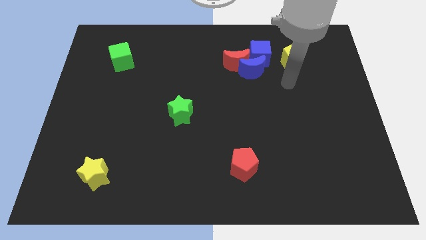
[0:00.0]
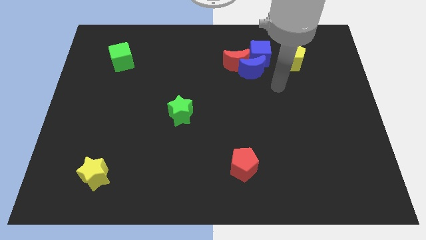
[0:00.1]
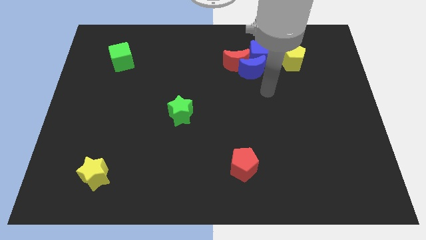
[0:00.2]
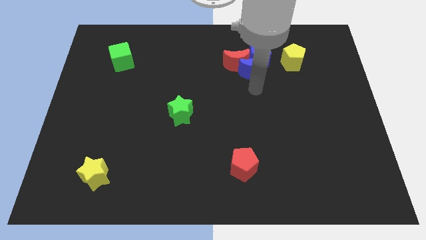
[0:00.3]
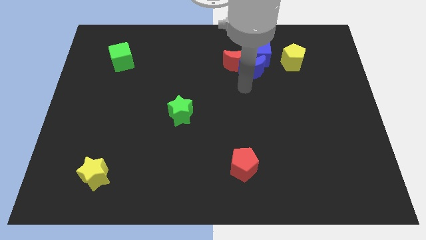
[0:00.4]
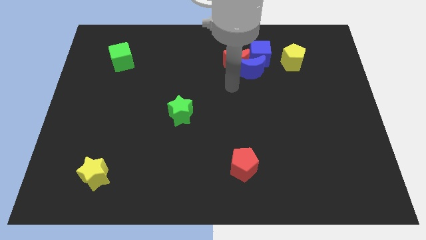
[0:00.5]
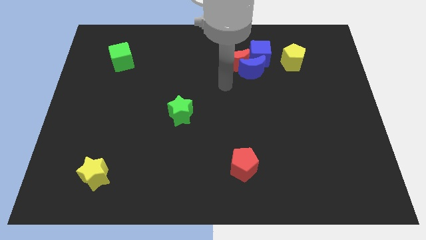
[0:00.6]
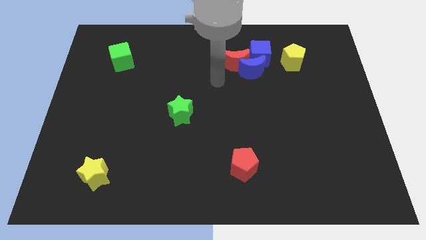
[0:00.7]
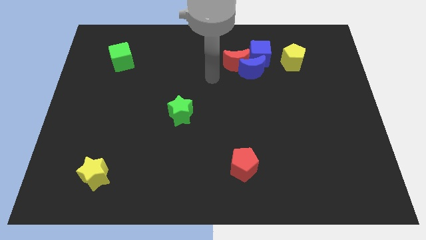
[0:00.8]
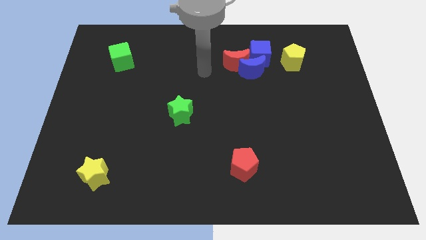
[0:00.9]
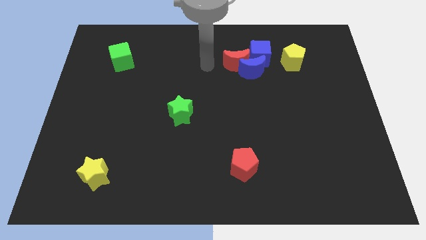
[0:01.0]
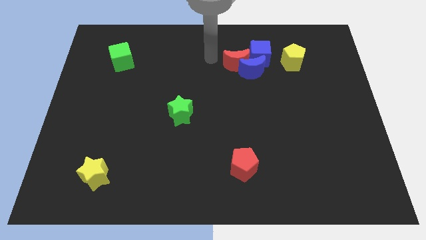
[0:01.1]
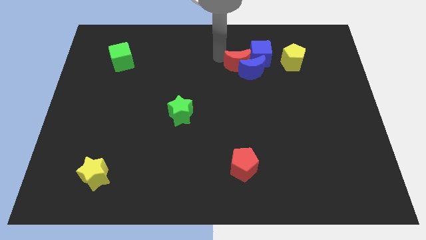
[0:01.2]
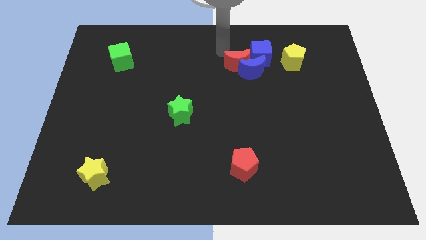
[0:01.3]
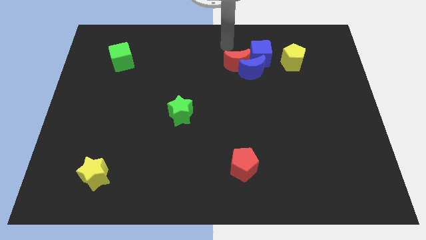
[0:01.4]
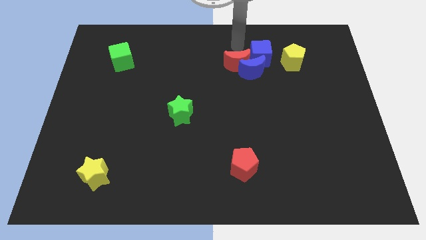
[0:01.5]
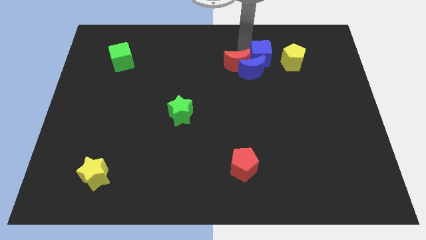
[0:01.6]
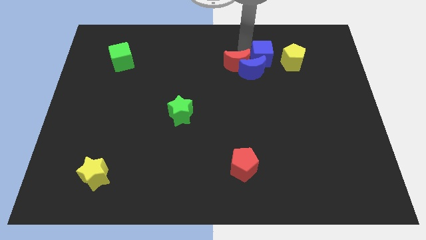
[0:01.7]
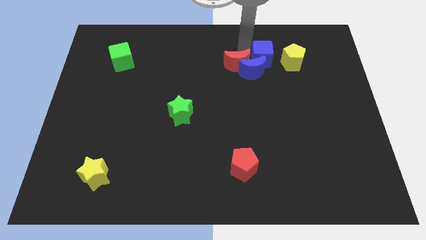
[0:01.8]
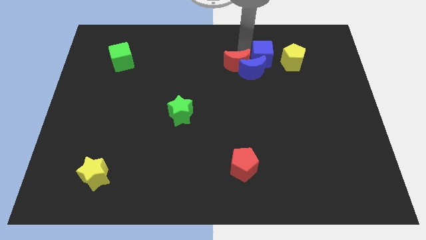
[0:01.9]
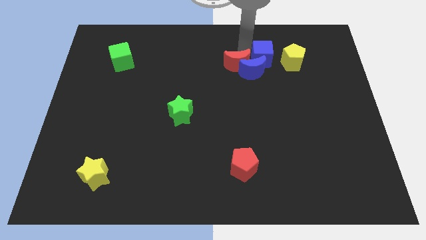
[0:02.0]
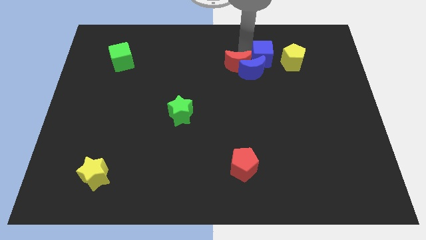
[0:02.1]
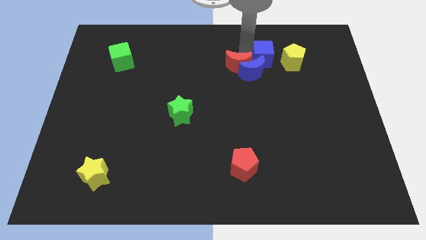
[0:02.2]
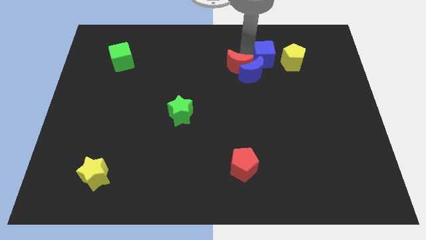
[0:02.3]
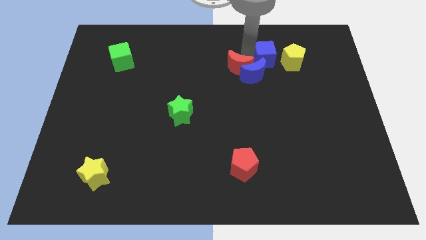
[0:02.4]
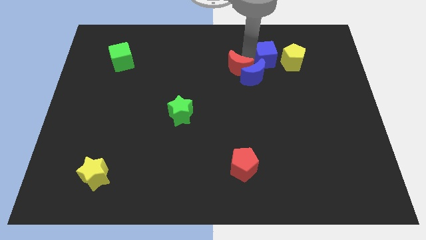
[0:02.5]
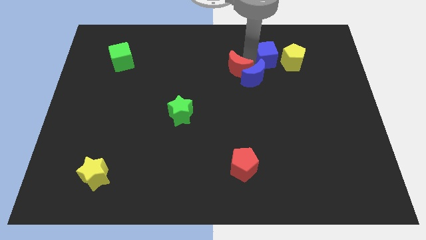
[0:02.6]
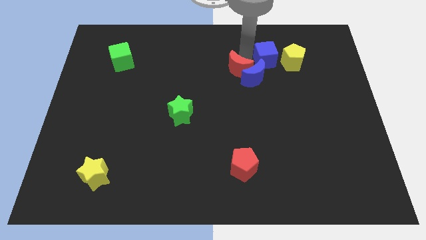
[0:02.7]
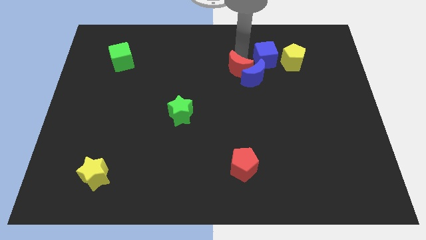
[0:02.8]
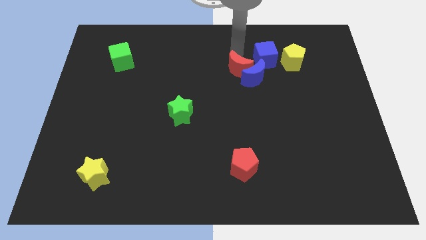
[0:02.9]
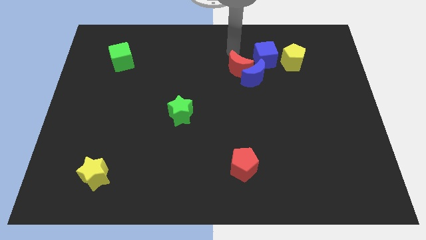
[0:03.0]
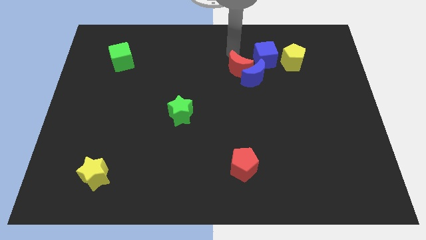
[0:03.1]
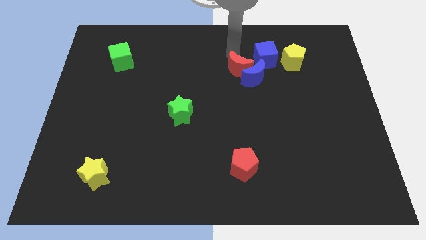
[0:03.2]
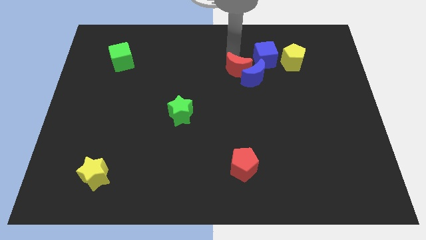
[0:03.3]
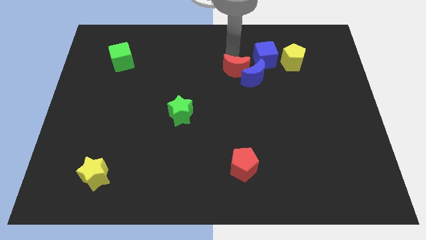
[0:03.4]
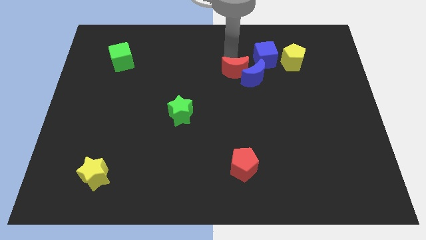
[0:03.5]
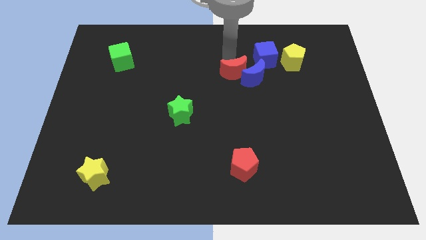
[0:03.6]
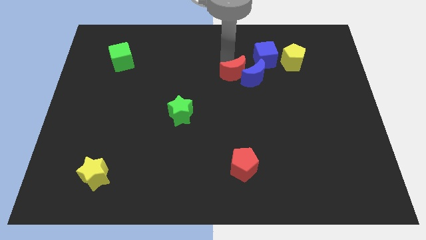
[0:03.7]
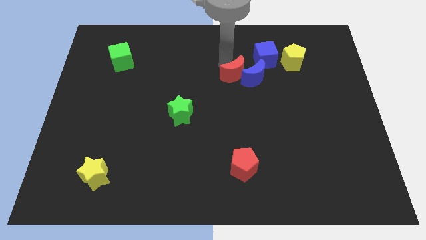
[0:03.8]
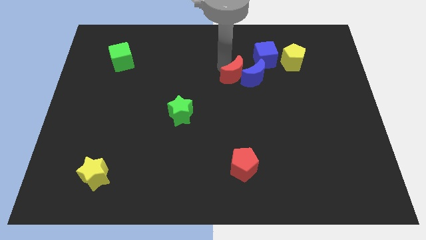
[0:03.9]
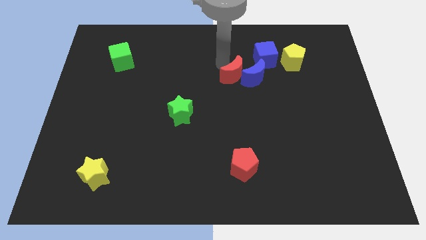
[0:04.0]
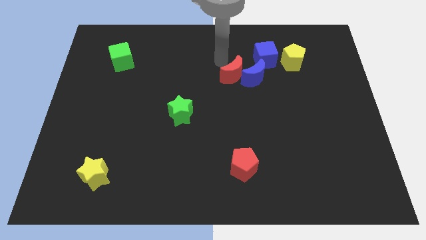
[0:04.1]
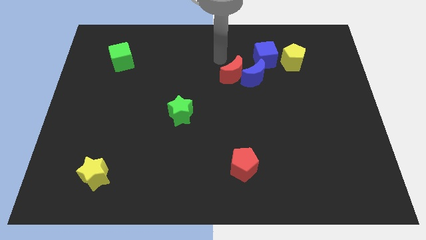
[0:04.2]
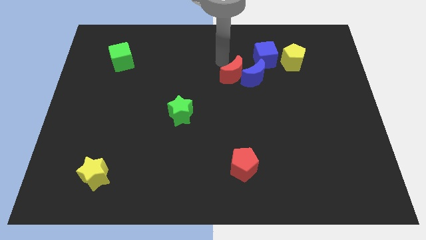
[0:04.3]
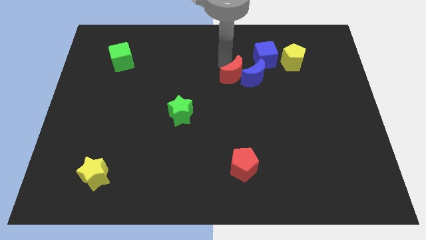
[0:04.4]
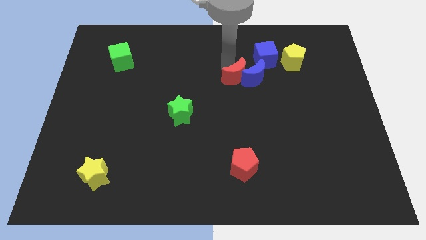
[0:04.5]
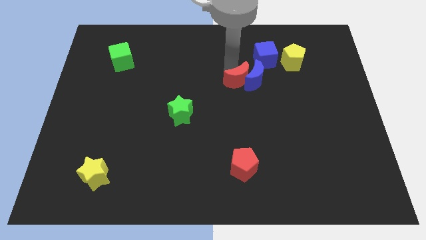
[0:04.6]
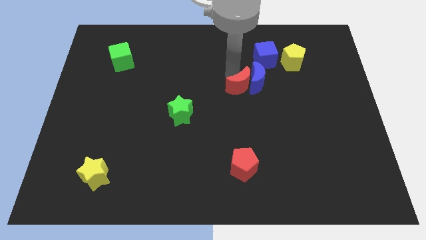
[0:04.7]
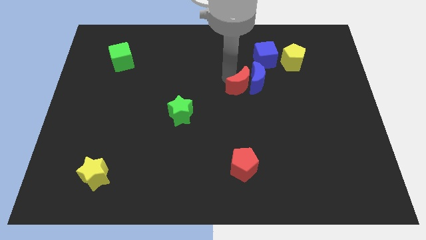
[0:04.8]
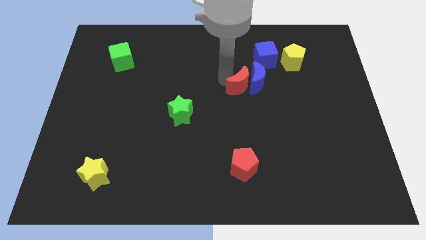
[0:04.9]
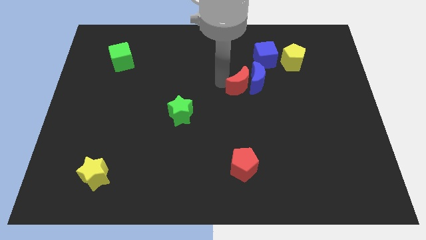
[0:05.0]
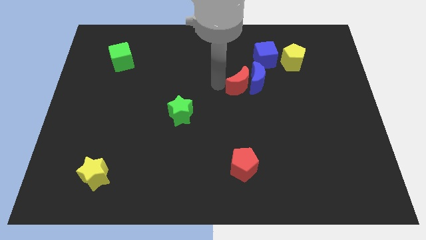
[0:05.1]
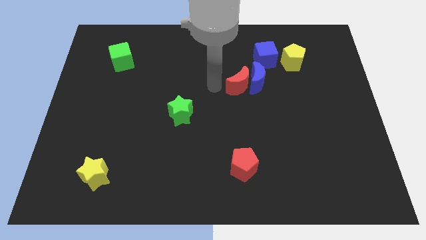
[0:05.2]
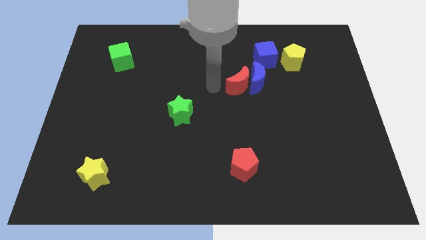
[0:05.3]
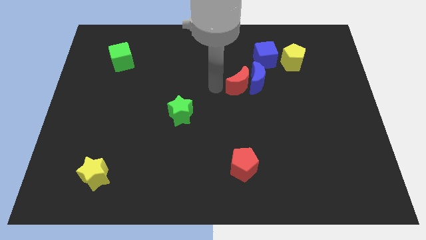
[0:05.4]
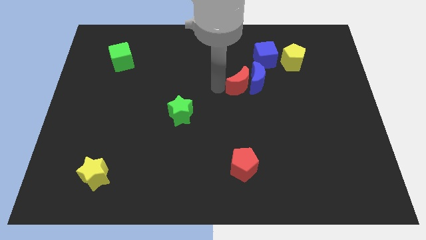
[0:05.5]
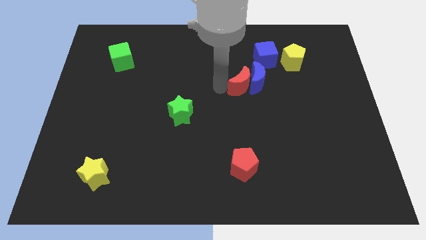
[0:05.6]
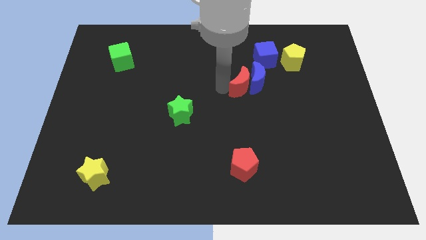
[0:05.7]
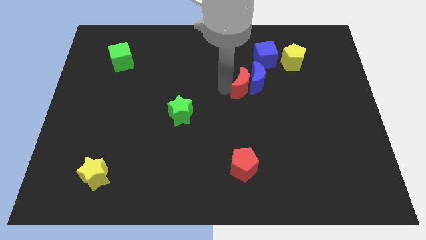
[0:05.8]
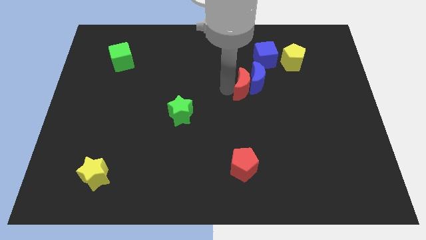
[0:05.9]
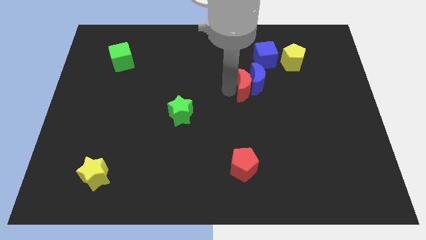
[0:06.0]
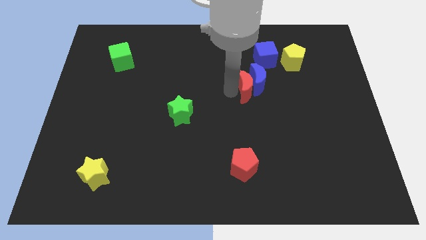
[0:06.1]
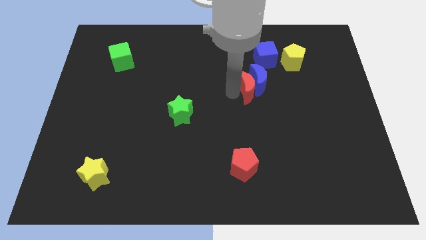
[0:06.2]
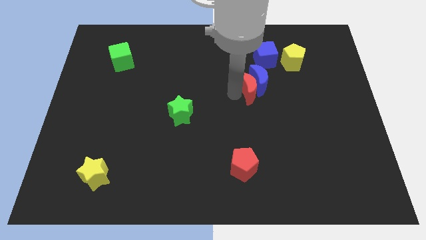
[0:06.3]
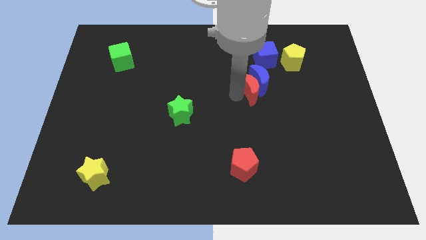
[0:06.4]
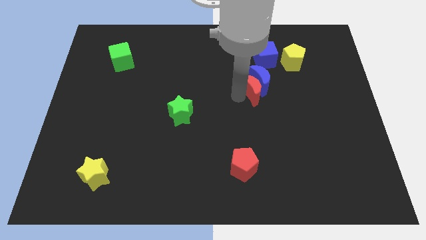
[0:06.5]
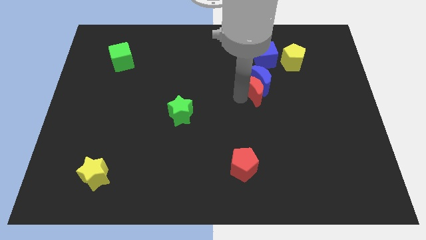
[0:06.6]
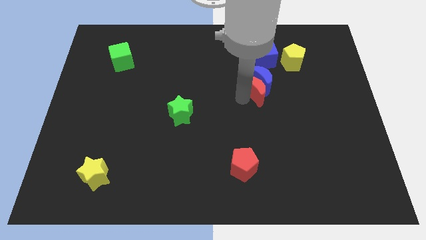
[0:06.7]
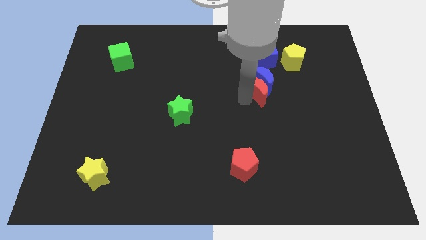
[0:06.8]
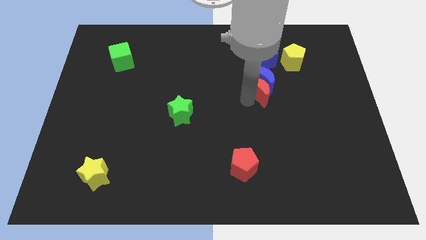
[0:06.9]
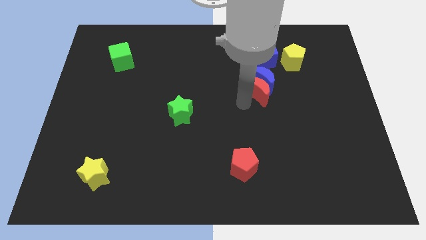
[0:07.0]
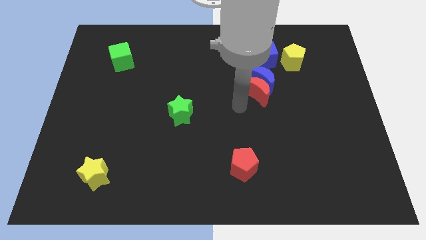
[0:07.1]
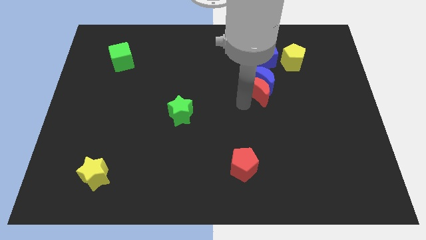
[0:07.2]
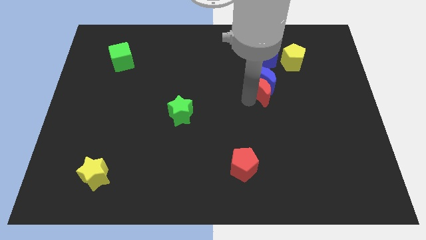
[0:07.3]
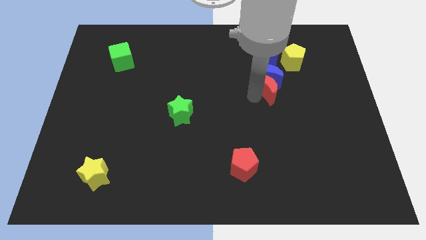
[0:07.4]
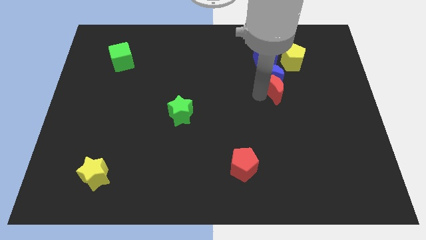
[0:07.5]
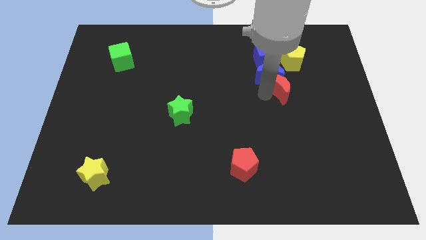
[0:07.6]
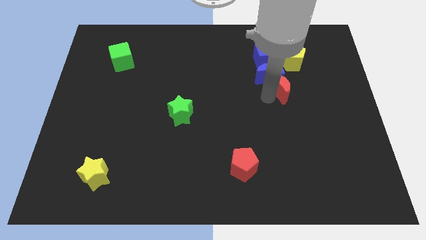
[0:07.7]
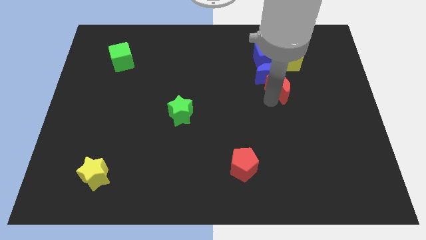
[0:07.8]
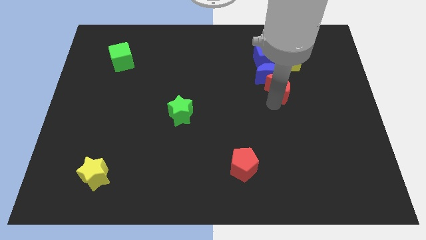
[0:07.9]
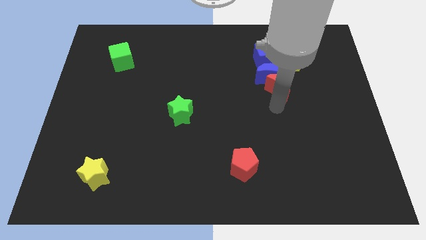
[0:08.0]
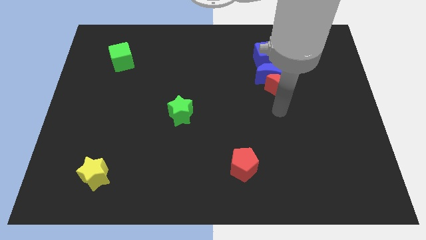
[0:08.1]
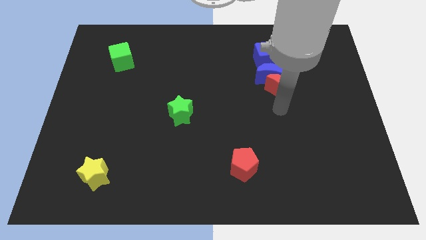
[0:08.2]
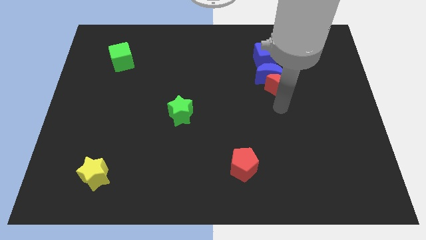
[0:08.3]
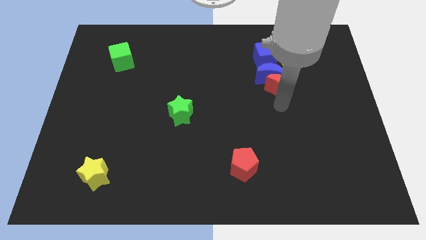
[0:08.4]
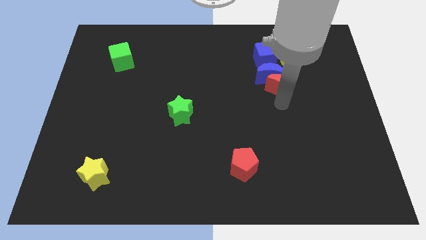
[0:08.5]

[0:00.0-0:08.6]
put the red moon to the right side of the blue moon
